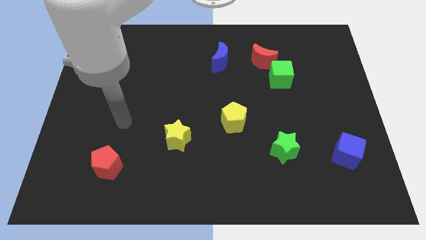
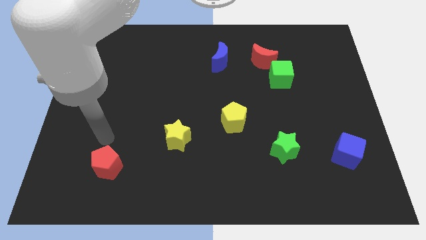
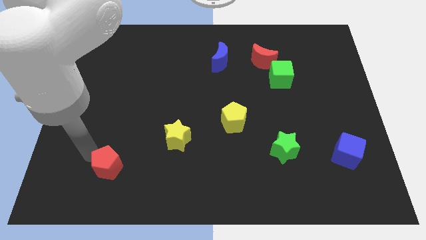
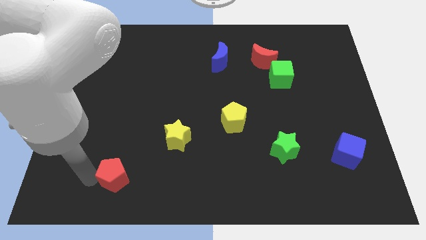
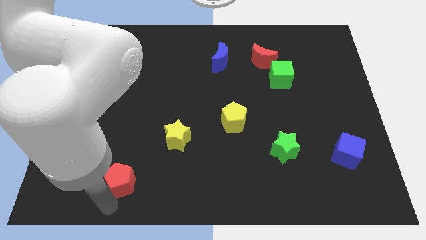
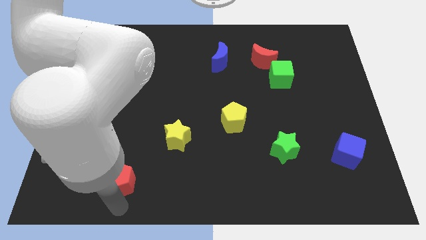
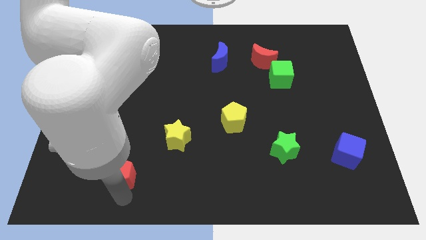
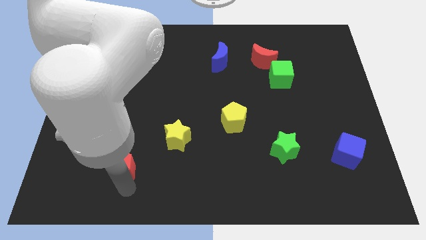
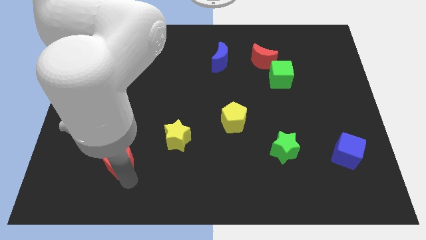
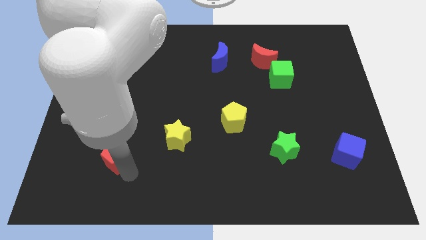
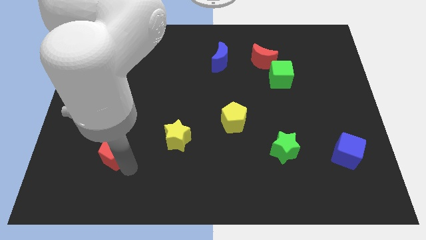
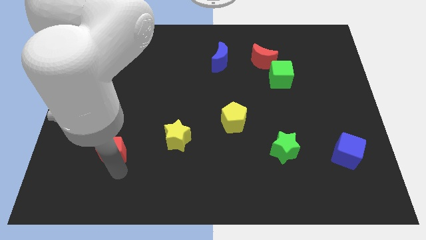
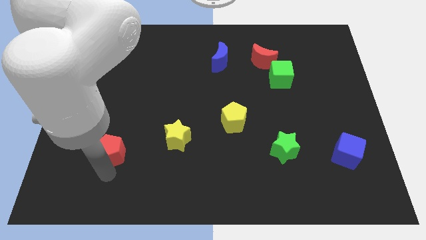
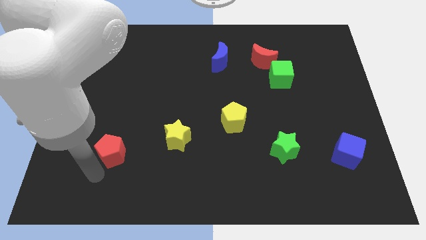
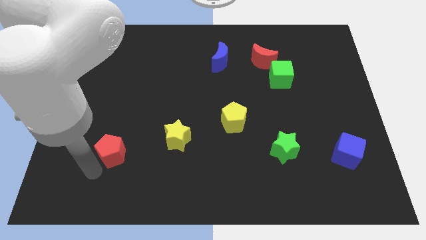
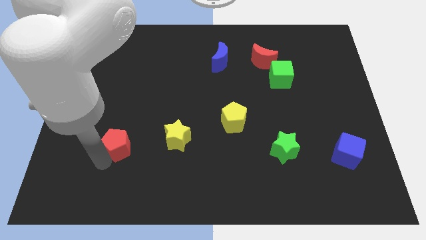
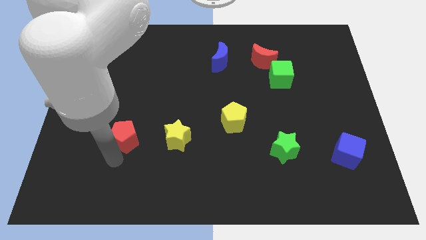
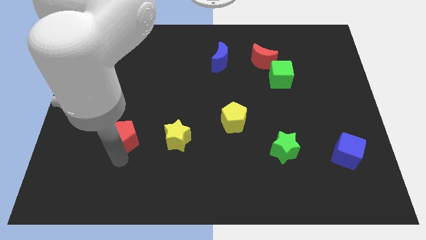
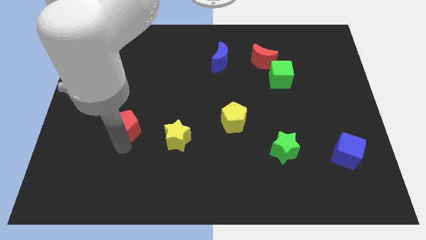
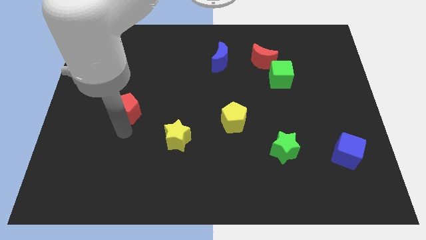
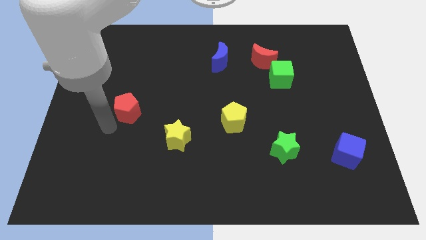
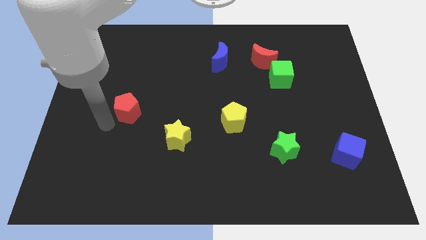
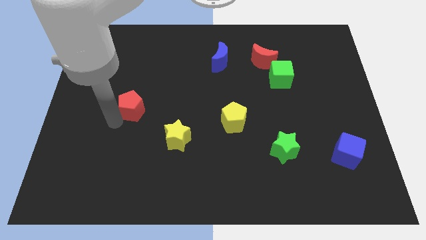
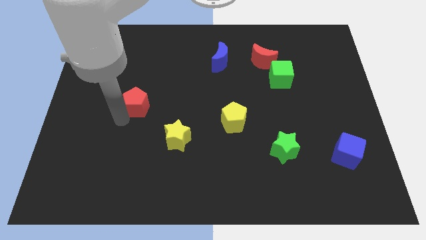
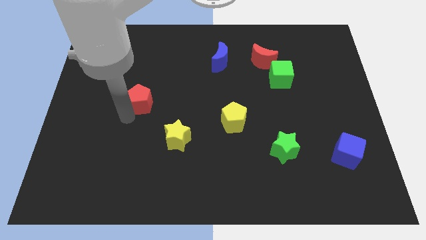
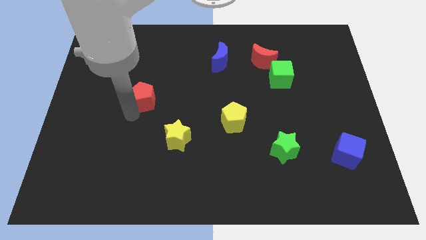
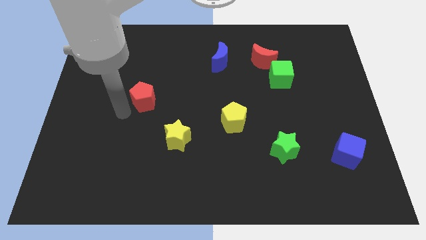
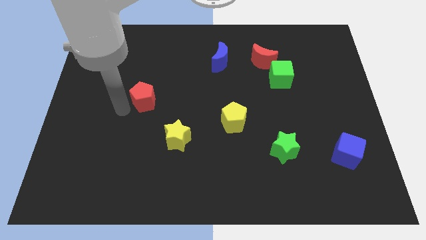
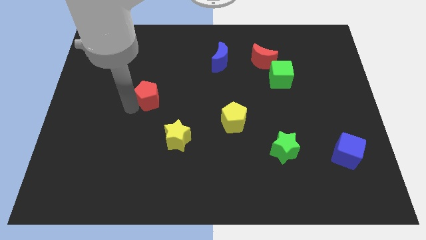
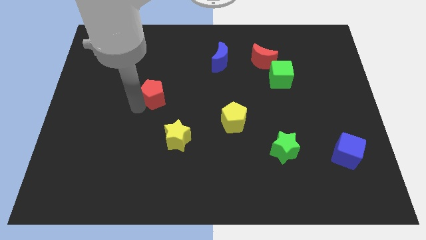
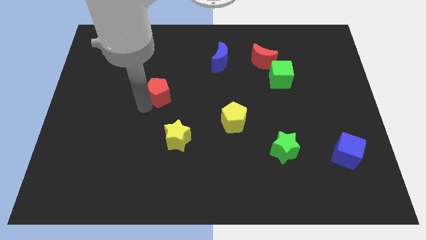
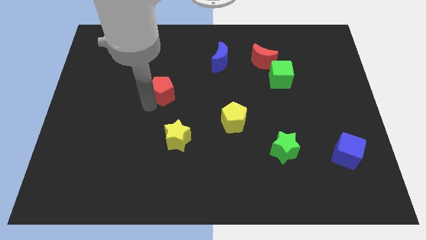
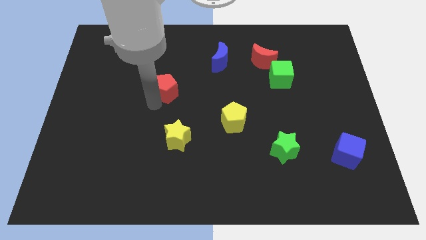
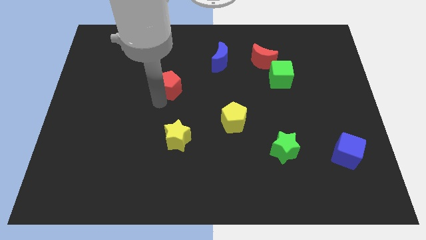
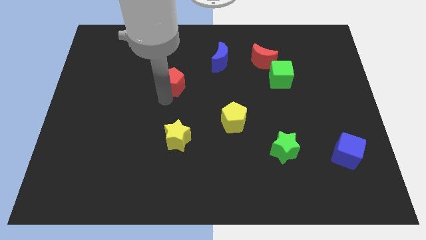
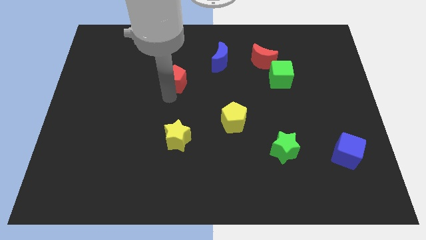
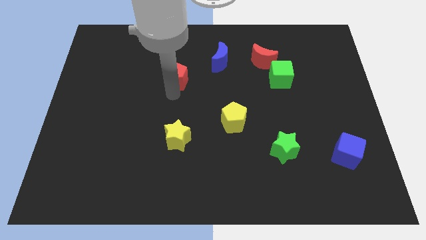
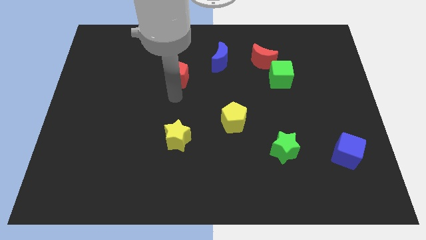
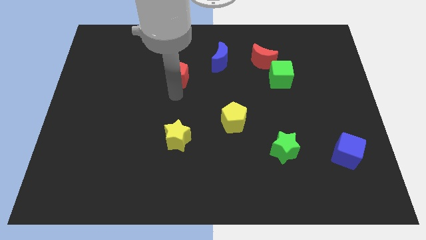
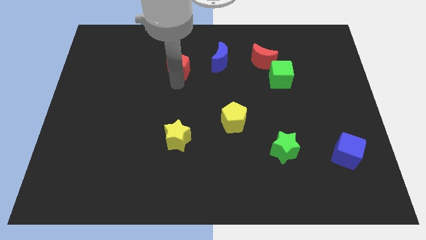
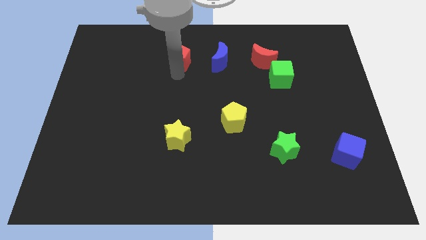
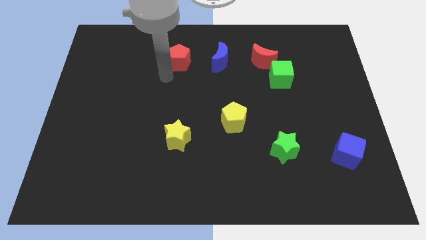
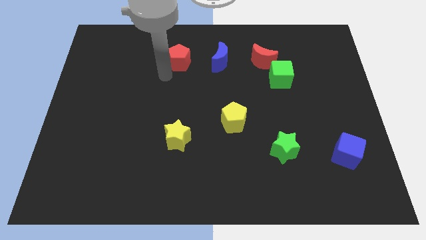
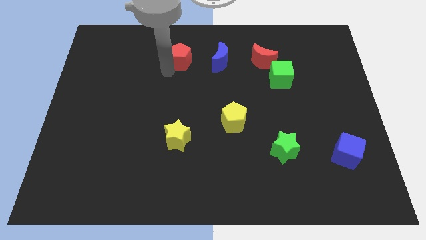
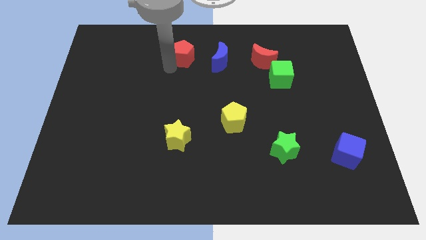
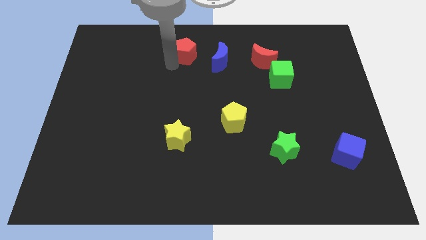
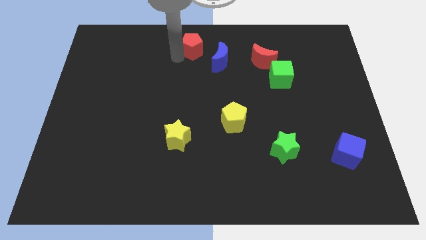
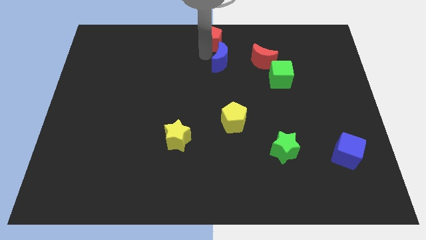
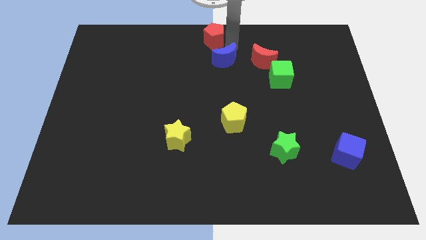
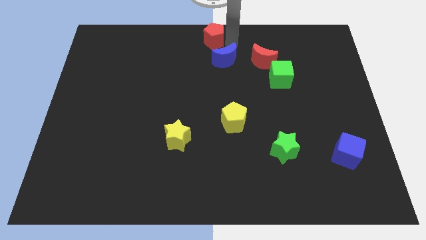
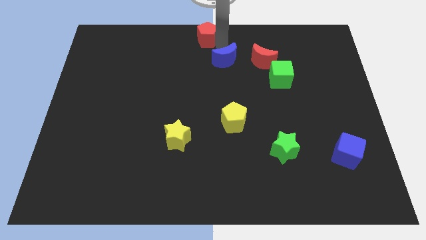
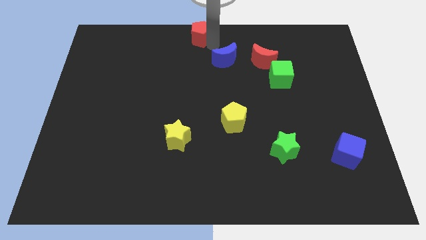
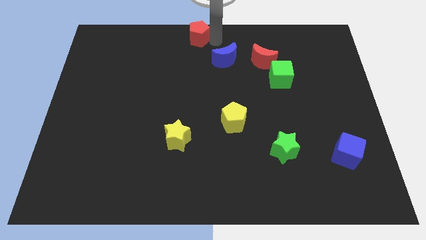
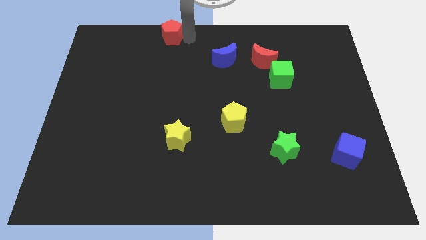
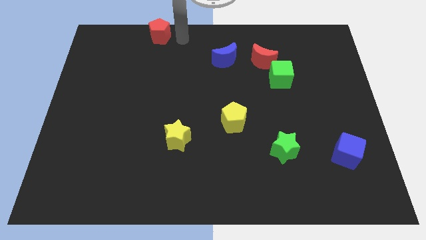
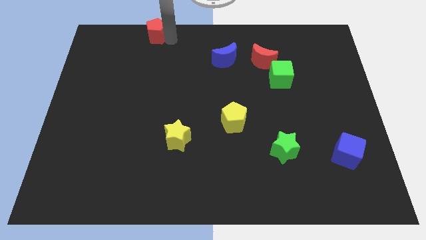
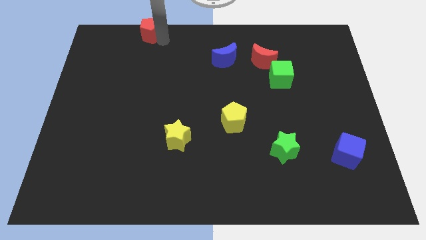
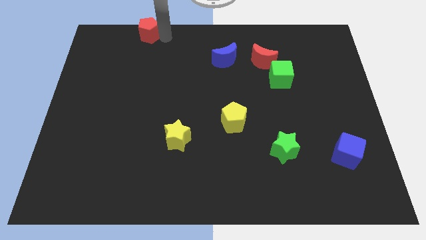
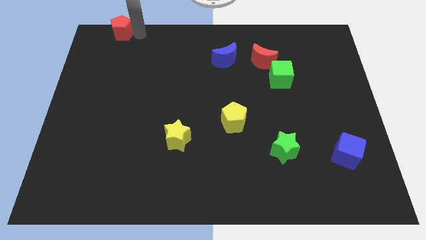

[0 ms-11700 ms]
push the red pentagon to the upper left corner

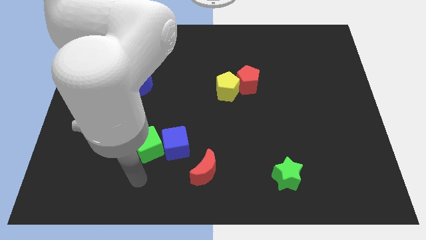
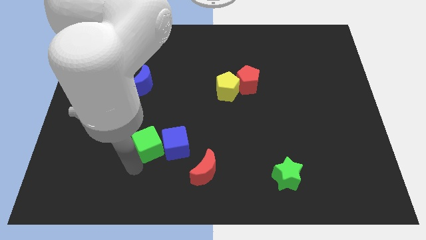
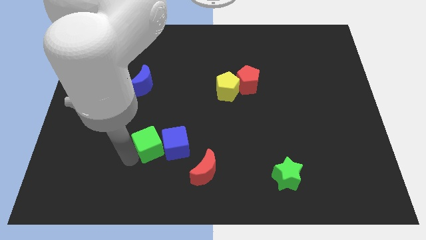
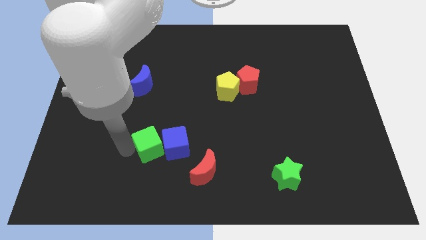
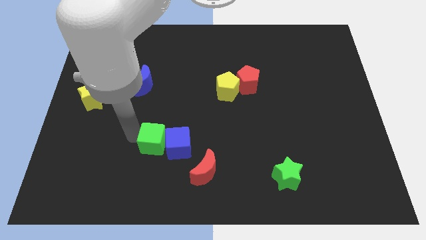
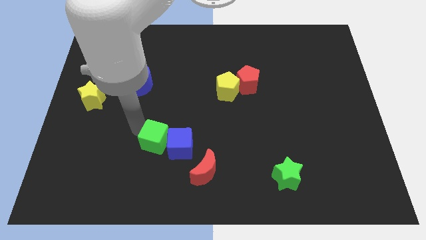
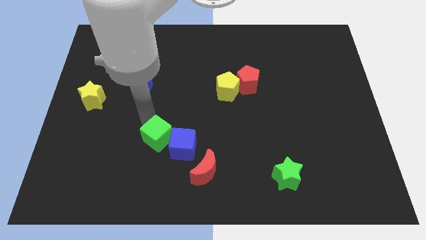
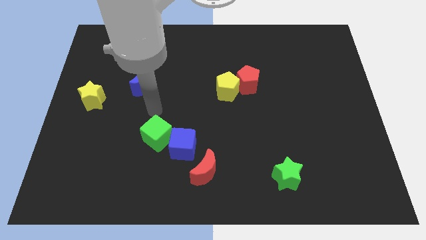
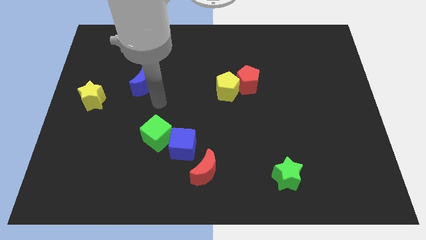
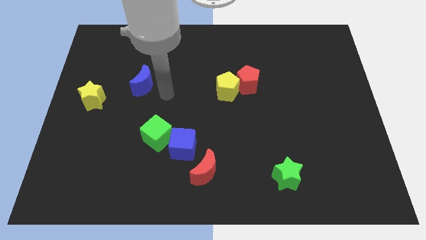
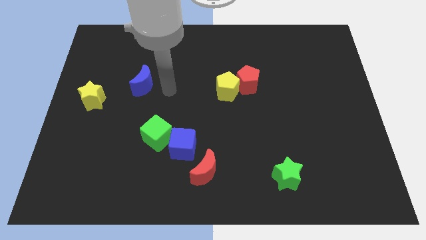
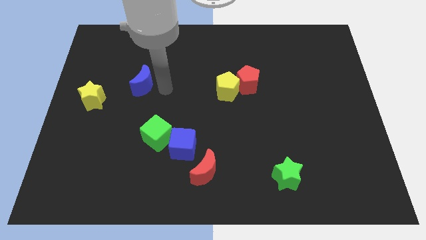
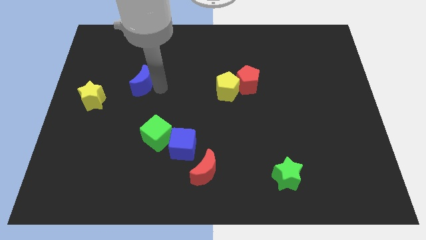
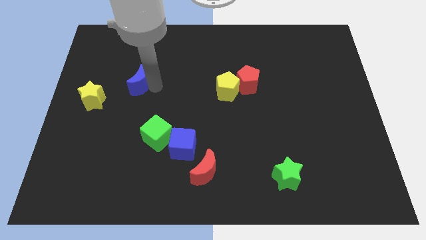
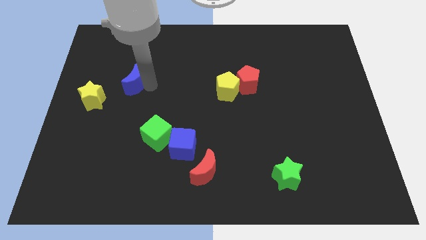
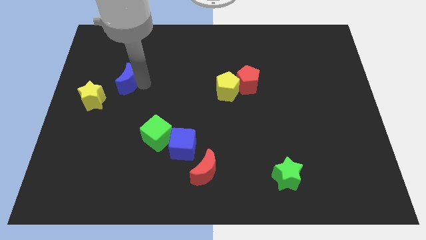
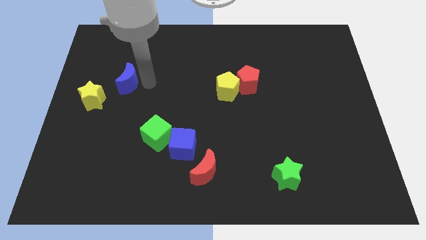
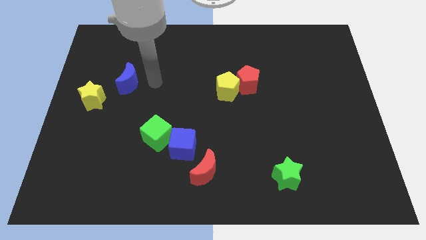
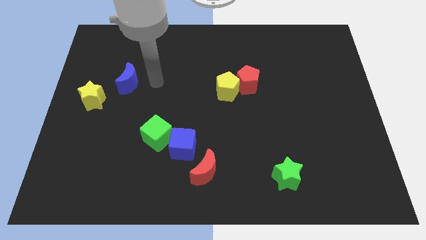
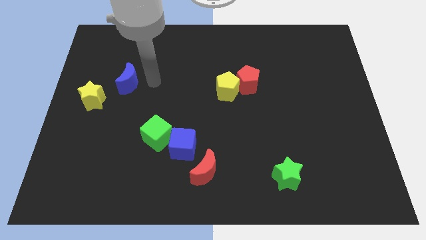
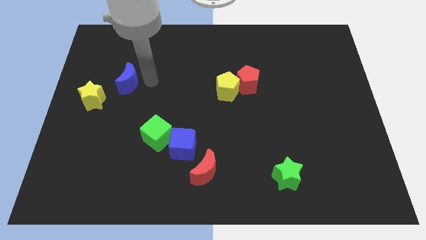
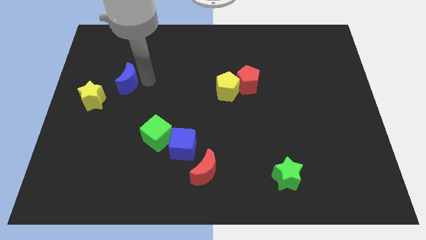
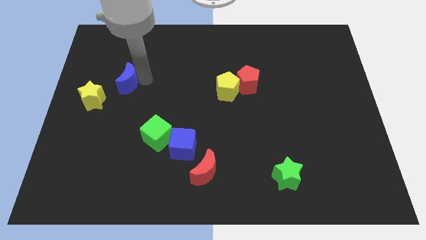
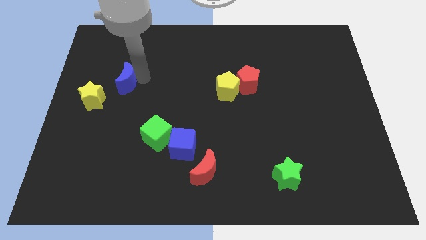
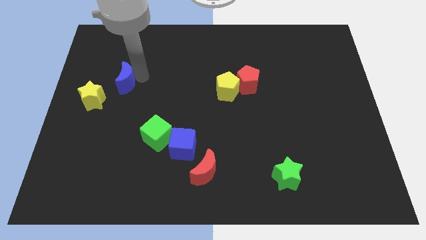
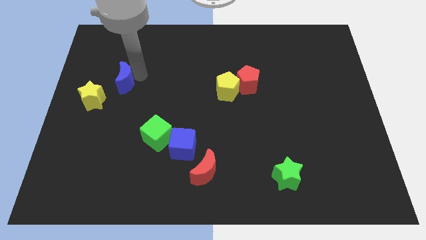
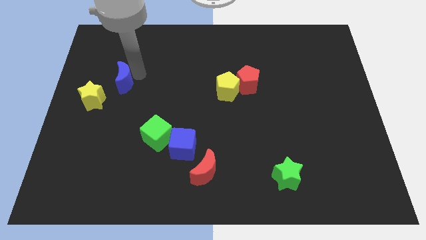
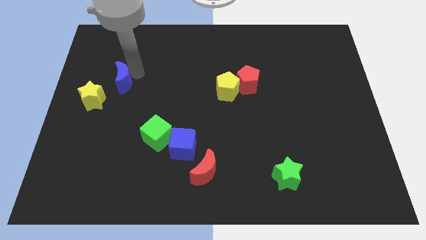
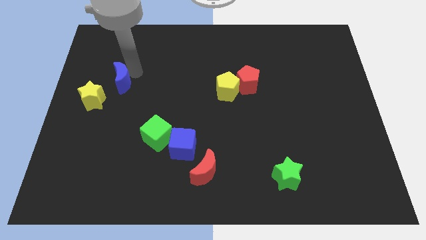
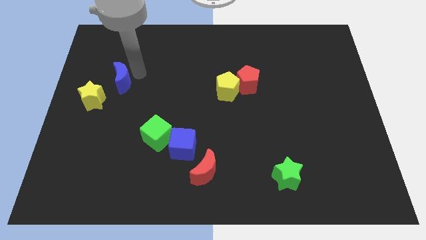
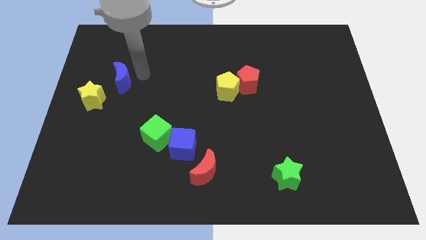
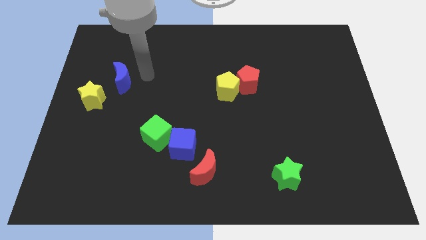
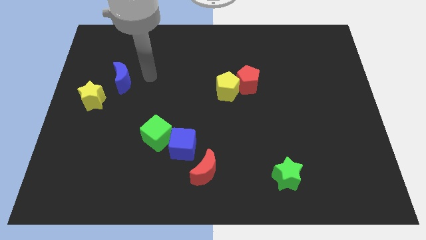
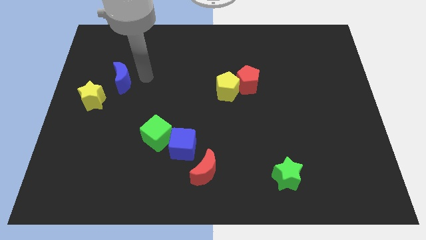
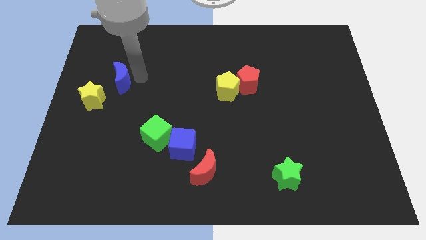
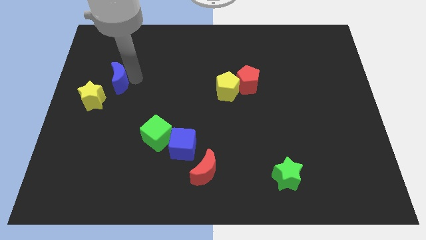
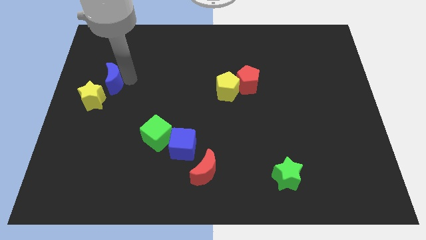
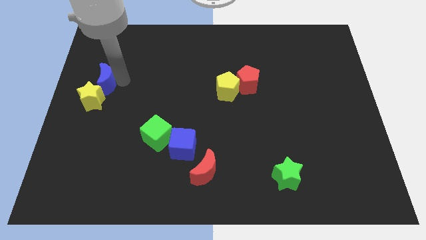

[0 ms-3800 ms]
slide the blue moon to the left side of the board
